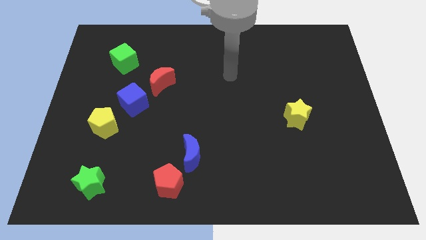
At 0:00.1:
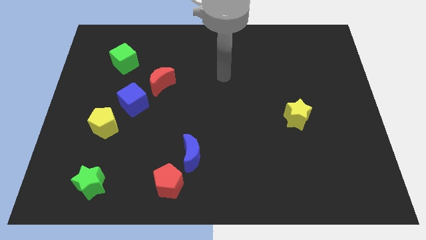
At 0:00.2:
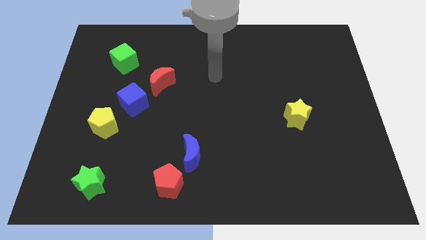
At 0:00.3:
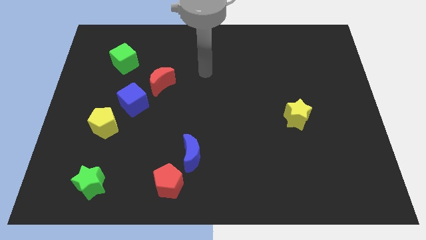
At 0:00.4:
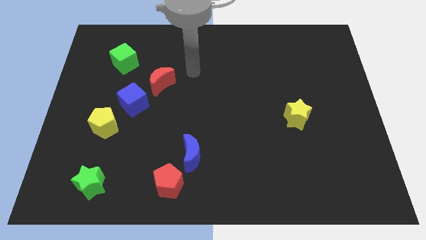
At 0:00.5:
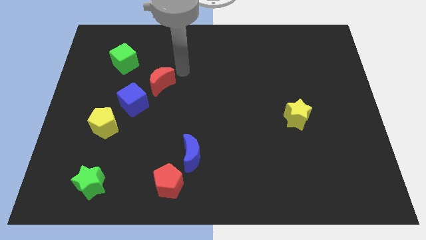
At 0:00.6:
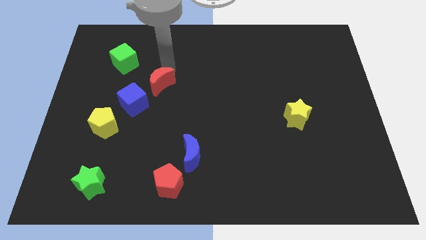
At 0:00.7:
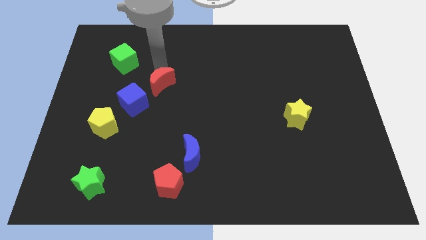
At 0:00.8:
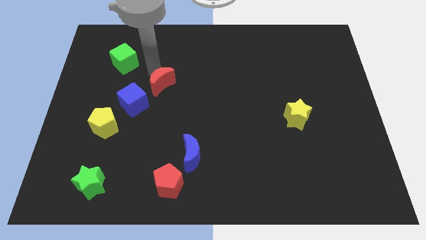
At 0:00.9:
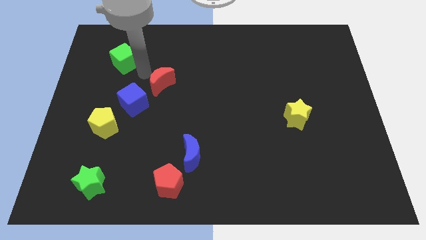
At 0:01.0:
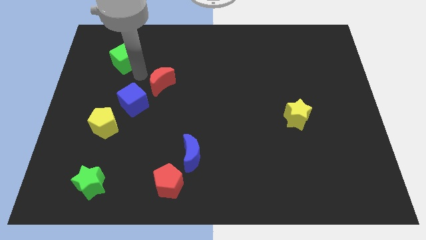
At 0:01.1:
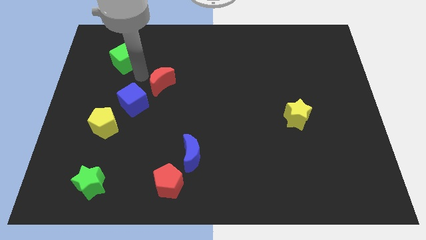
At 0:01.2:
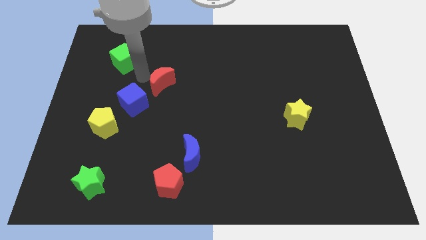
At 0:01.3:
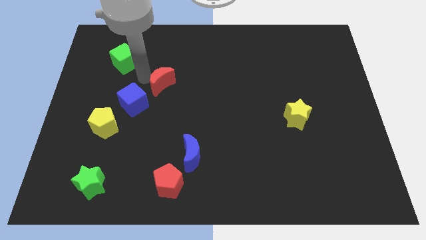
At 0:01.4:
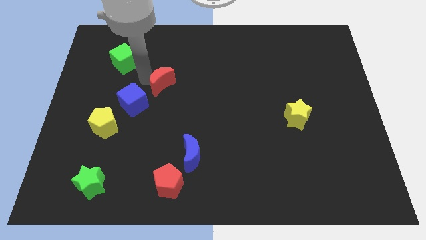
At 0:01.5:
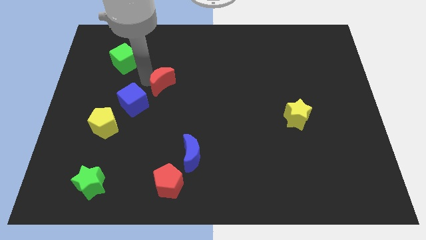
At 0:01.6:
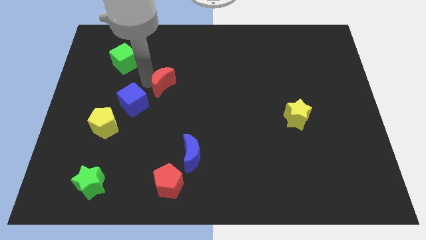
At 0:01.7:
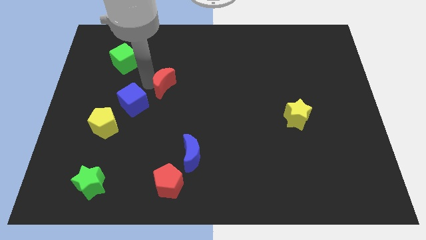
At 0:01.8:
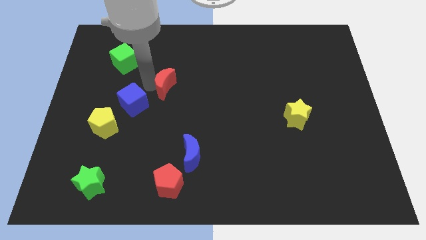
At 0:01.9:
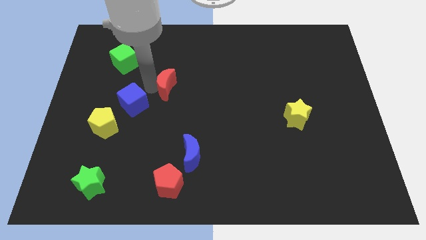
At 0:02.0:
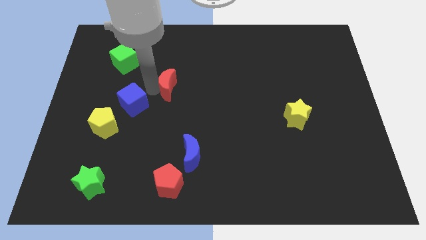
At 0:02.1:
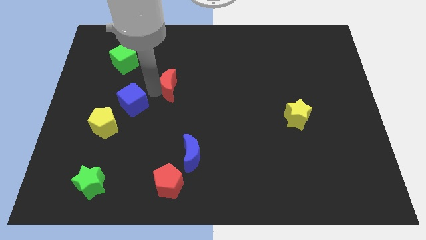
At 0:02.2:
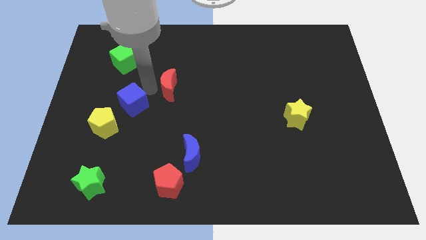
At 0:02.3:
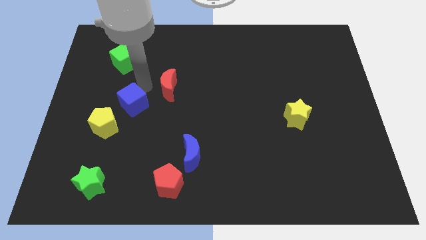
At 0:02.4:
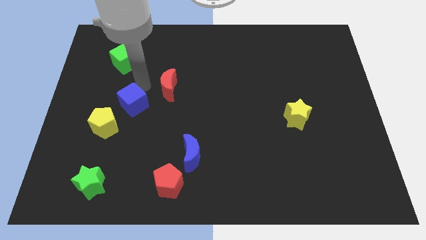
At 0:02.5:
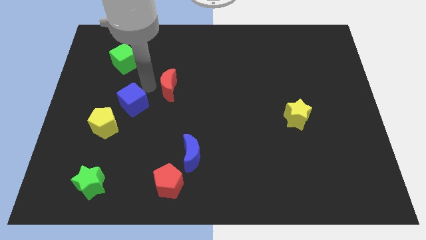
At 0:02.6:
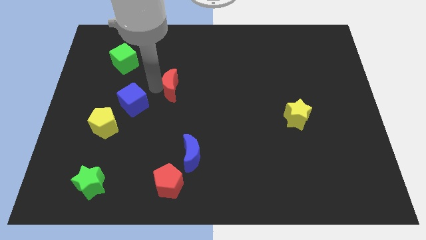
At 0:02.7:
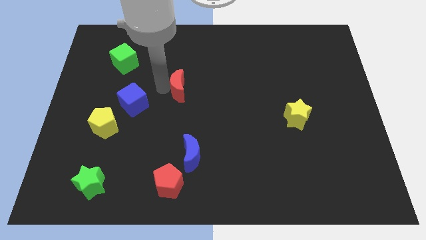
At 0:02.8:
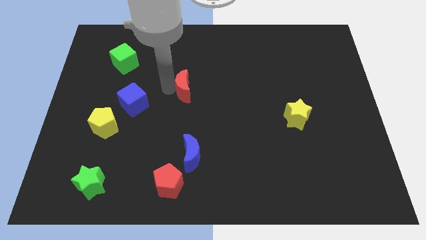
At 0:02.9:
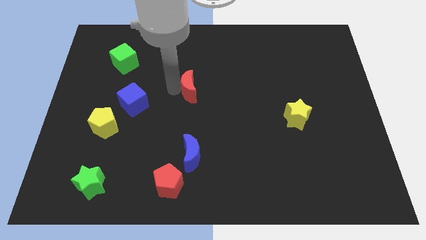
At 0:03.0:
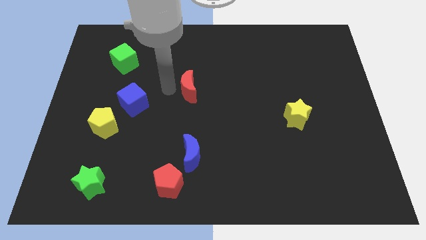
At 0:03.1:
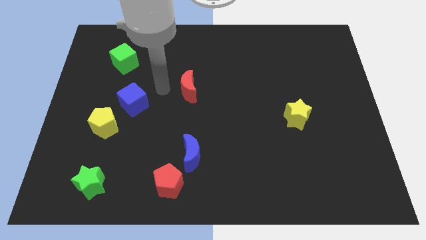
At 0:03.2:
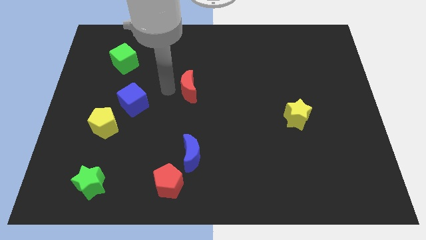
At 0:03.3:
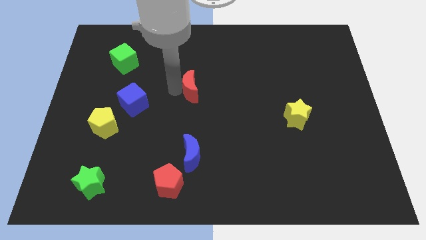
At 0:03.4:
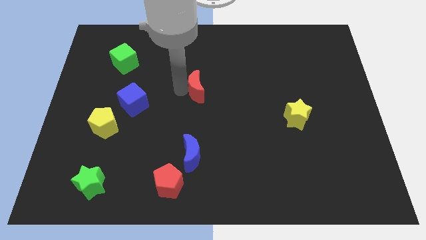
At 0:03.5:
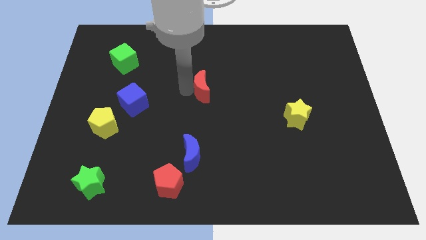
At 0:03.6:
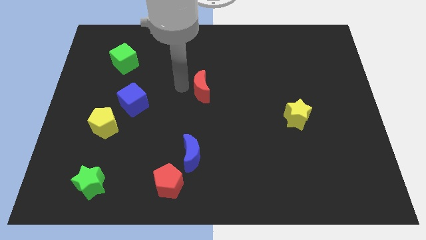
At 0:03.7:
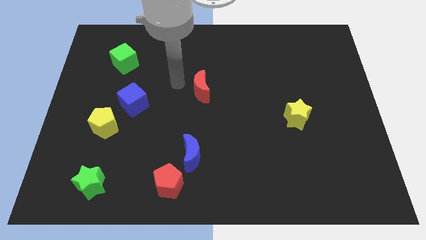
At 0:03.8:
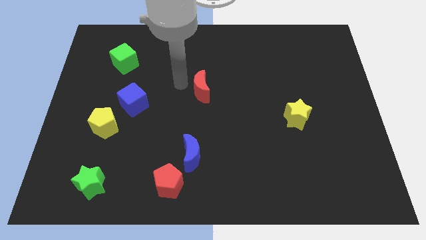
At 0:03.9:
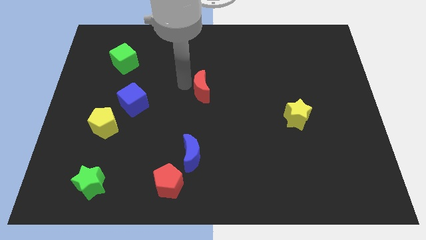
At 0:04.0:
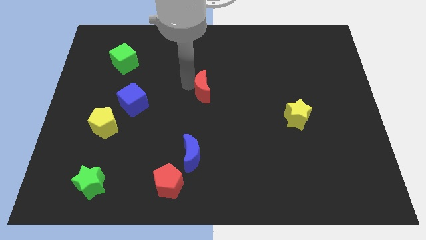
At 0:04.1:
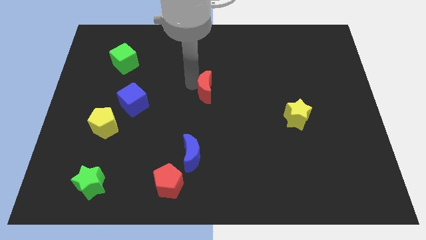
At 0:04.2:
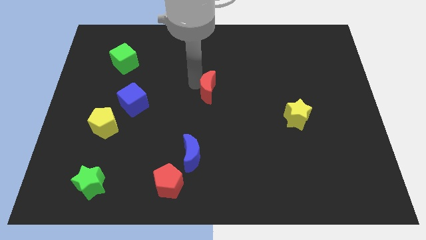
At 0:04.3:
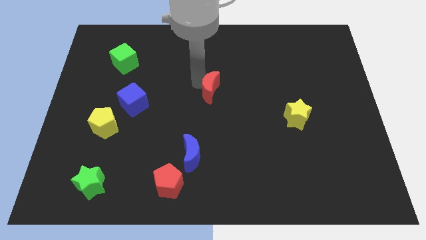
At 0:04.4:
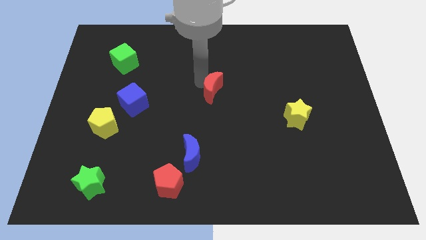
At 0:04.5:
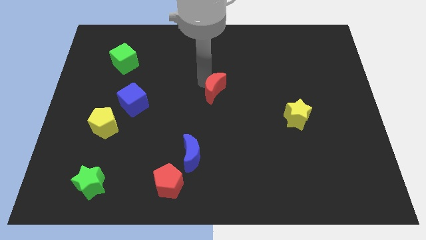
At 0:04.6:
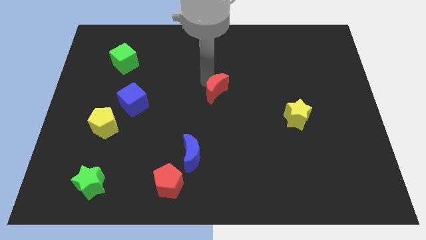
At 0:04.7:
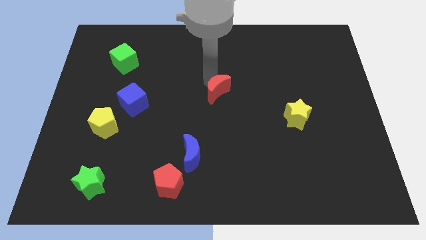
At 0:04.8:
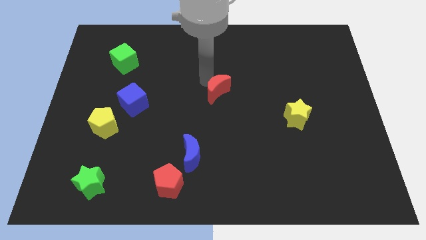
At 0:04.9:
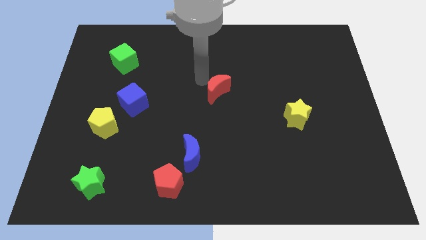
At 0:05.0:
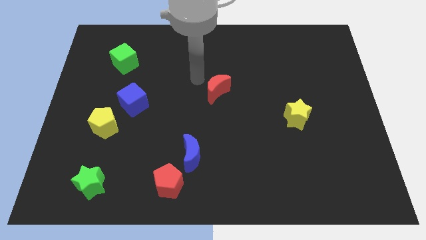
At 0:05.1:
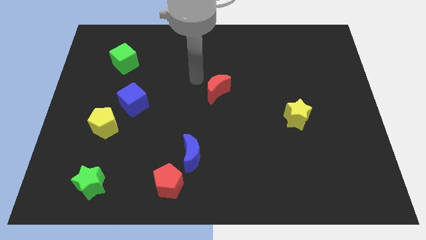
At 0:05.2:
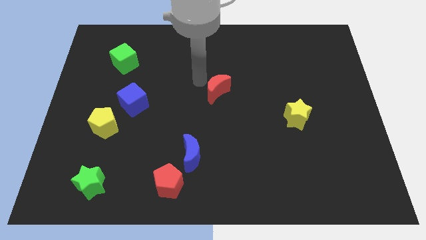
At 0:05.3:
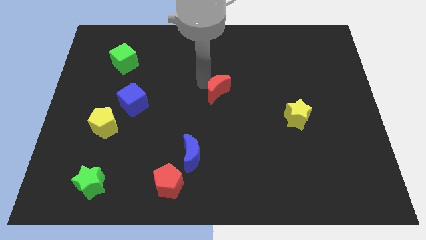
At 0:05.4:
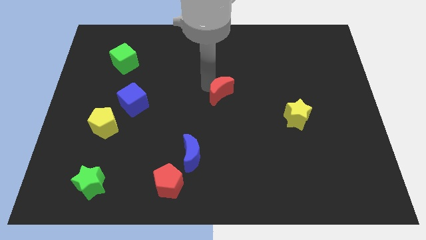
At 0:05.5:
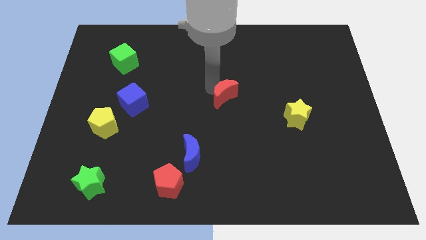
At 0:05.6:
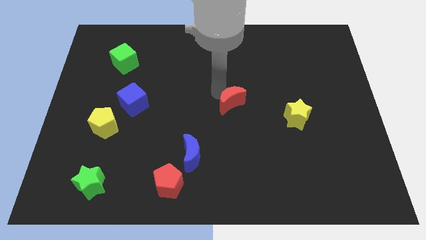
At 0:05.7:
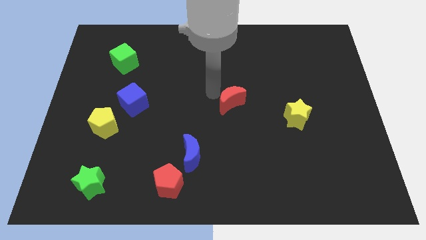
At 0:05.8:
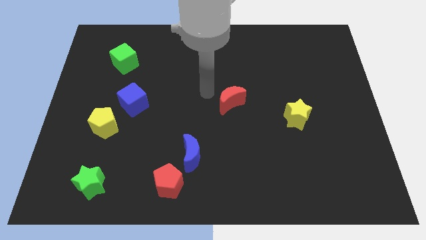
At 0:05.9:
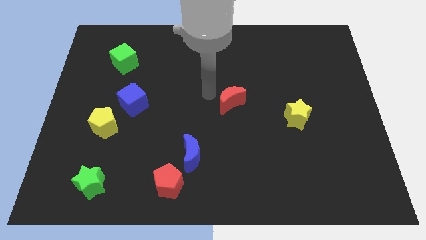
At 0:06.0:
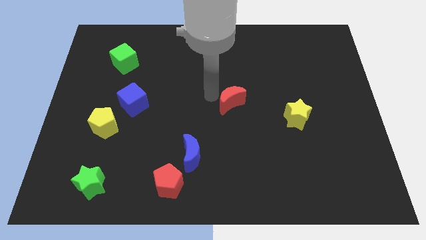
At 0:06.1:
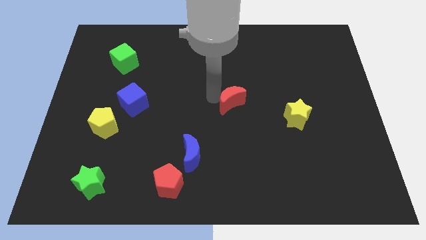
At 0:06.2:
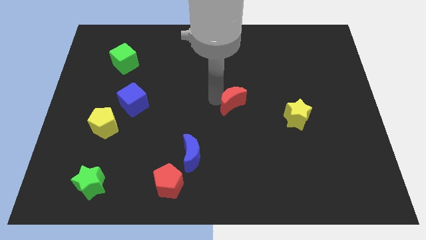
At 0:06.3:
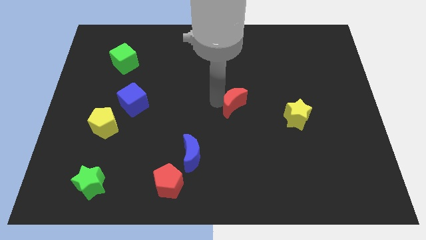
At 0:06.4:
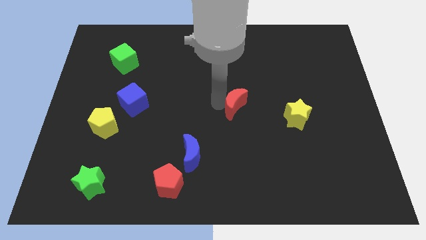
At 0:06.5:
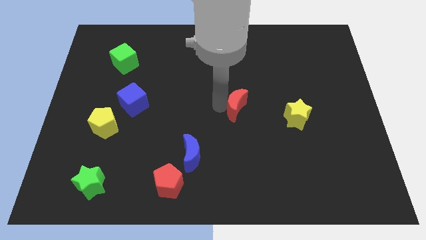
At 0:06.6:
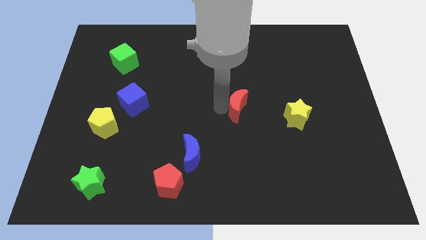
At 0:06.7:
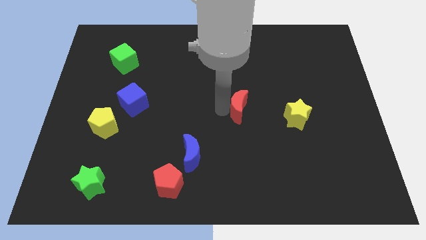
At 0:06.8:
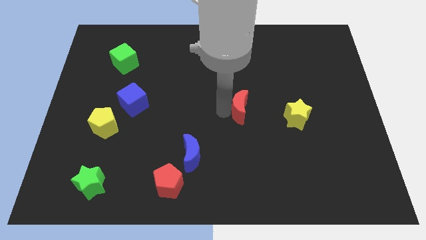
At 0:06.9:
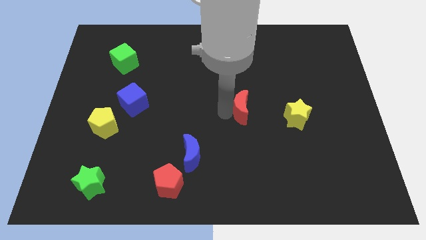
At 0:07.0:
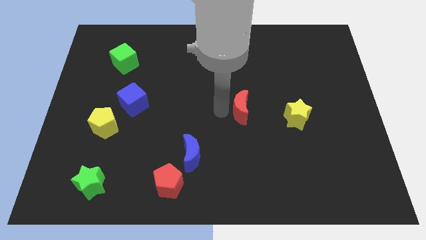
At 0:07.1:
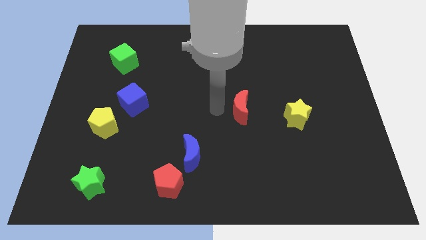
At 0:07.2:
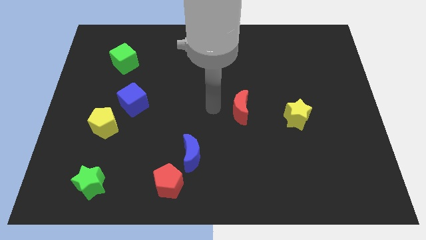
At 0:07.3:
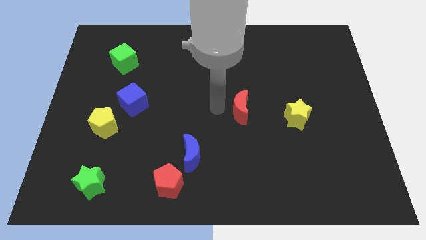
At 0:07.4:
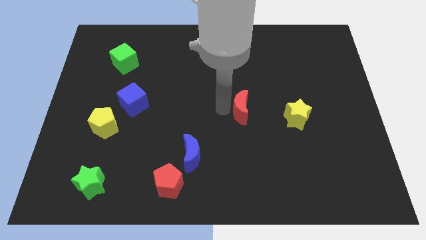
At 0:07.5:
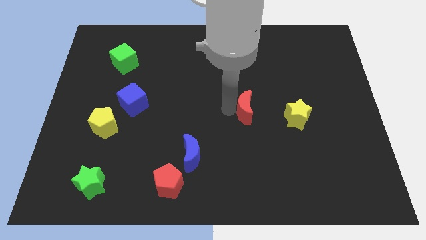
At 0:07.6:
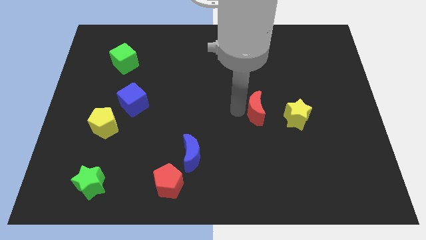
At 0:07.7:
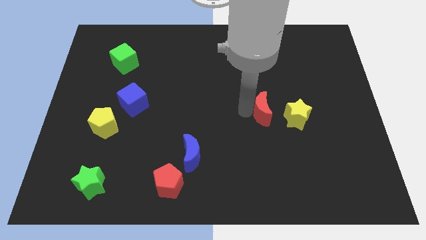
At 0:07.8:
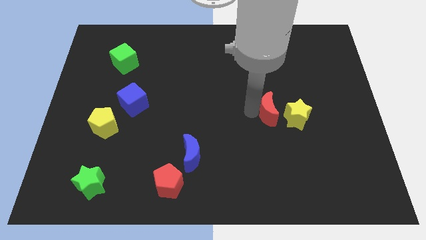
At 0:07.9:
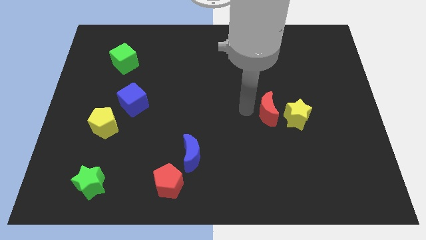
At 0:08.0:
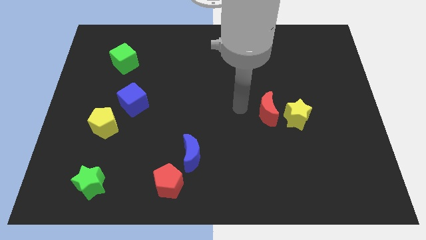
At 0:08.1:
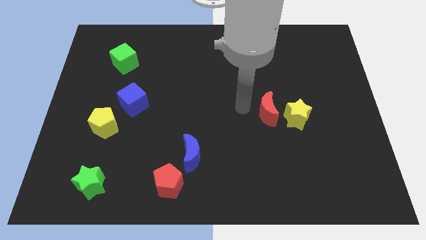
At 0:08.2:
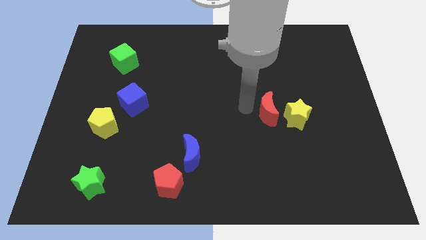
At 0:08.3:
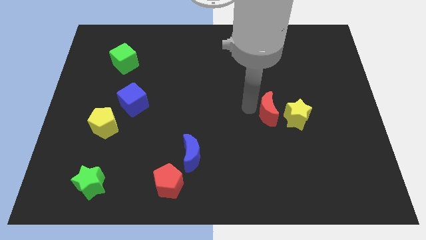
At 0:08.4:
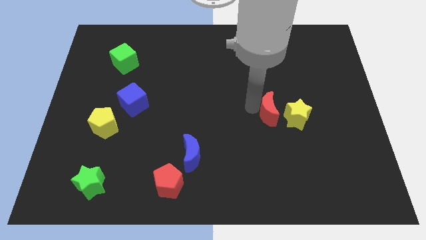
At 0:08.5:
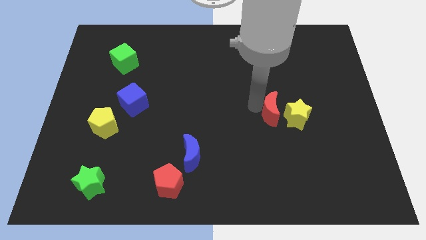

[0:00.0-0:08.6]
push the red moon close to the yellow star
